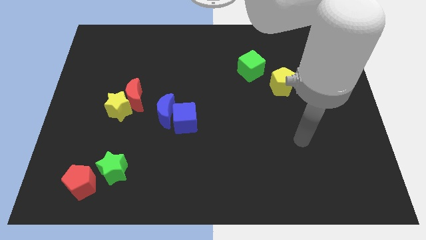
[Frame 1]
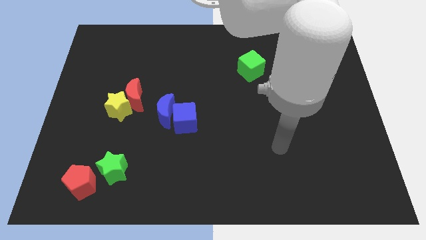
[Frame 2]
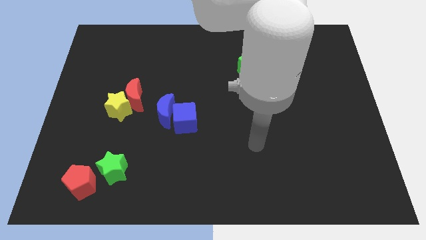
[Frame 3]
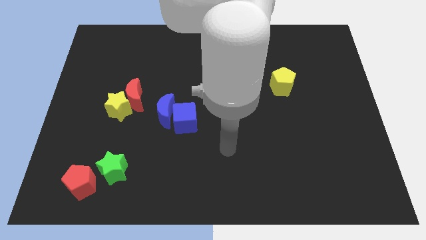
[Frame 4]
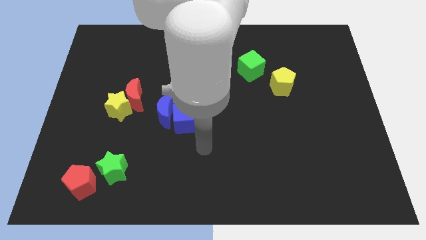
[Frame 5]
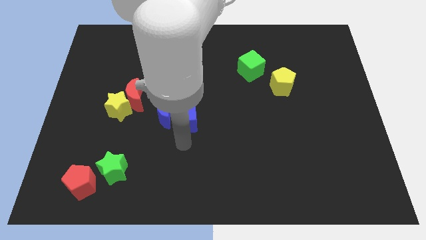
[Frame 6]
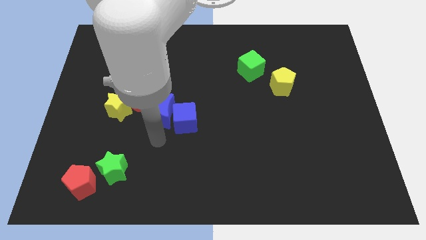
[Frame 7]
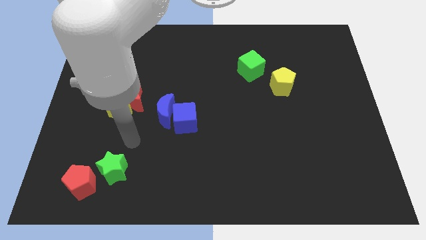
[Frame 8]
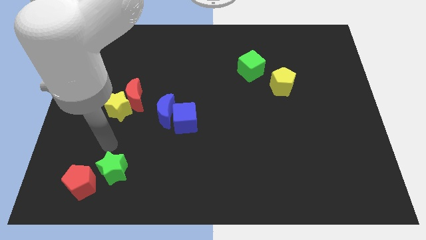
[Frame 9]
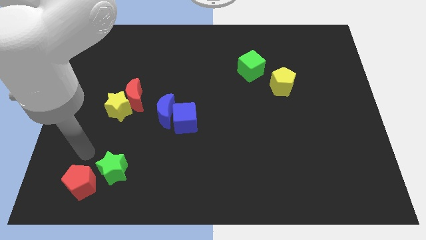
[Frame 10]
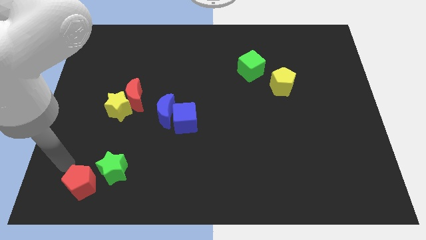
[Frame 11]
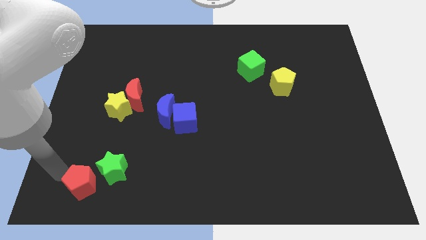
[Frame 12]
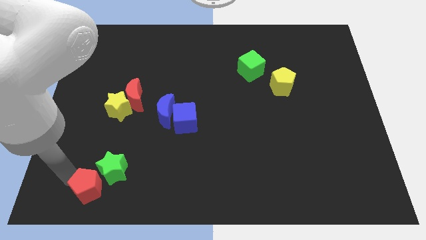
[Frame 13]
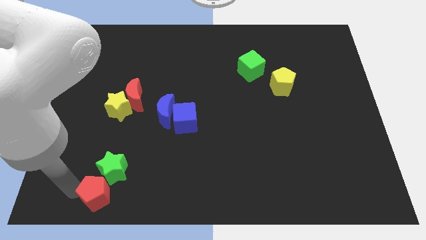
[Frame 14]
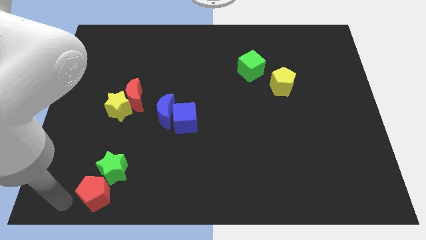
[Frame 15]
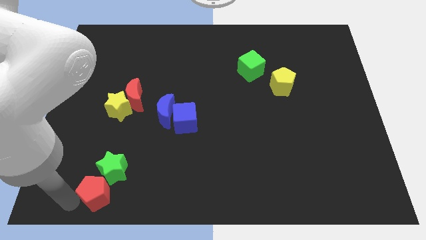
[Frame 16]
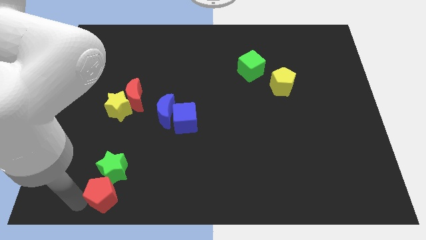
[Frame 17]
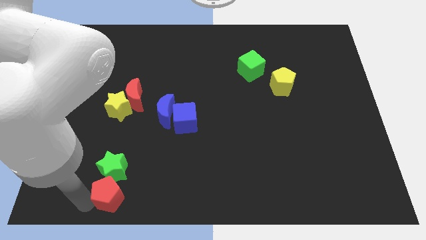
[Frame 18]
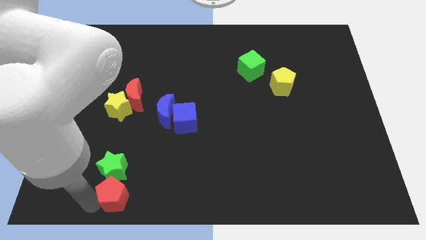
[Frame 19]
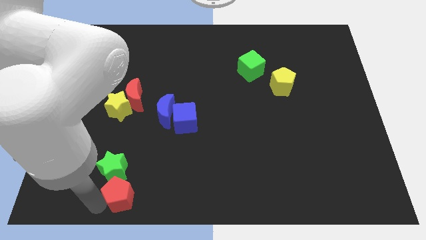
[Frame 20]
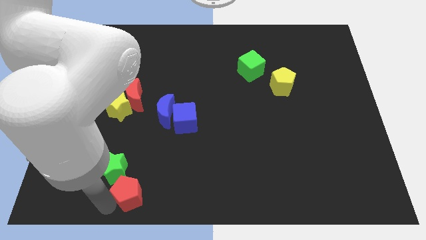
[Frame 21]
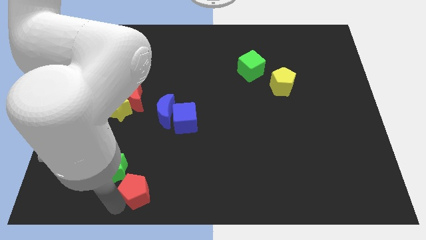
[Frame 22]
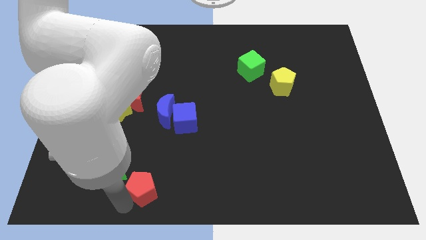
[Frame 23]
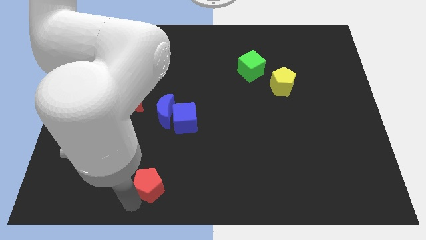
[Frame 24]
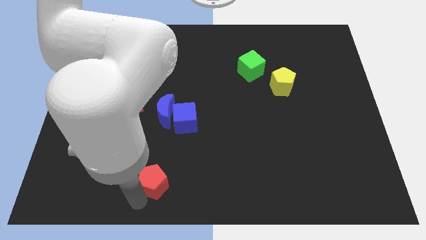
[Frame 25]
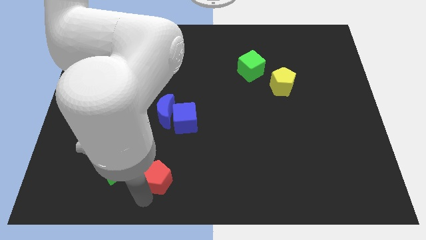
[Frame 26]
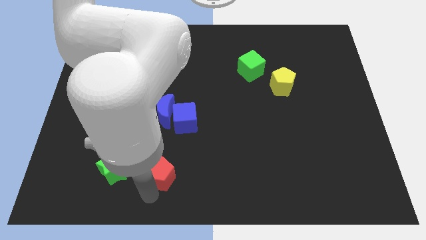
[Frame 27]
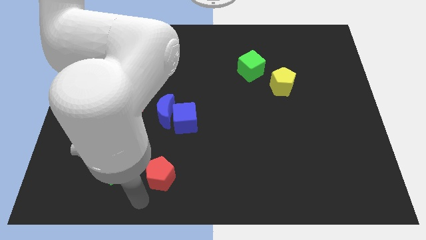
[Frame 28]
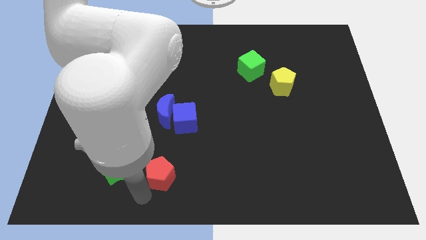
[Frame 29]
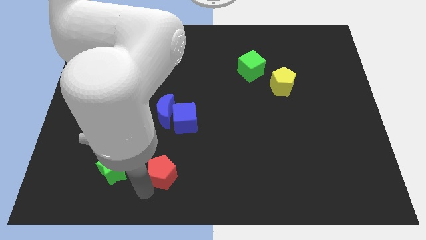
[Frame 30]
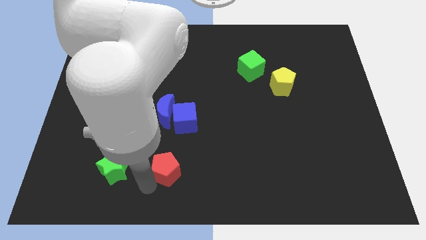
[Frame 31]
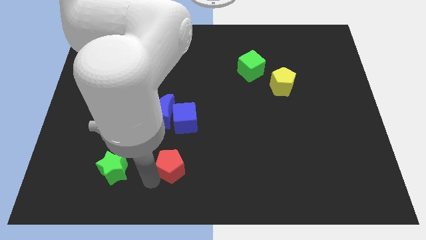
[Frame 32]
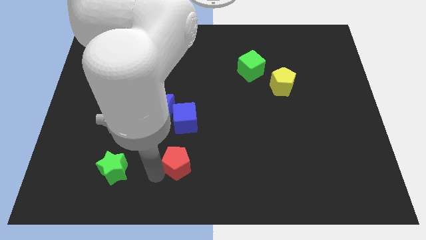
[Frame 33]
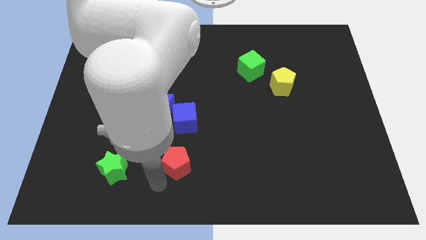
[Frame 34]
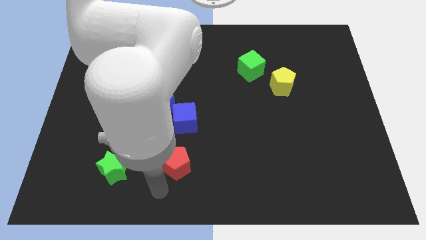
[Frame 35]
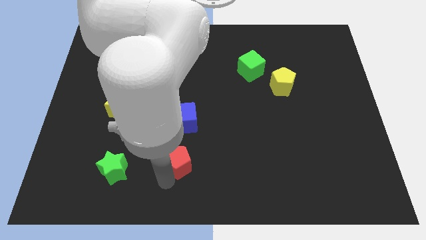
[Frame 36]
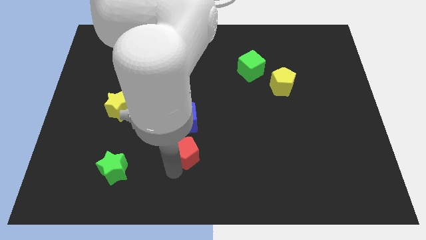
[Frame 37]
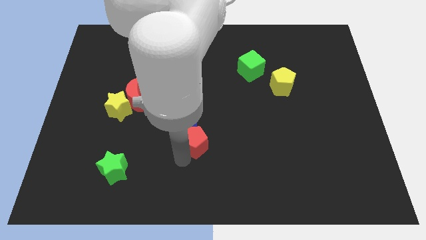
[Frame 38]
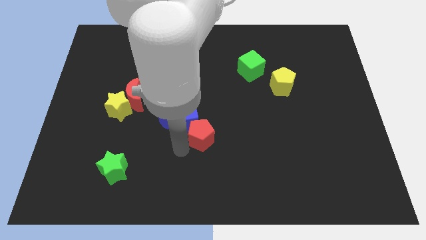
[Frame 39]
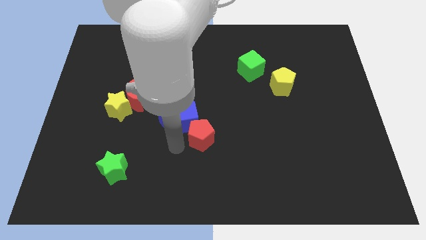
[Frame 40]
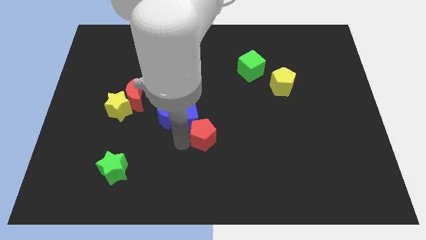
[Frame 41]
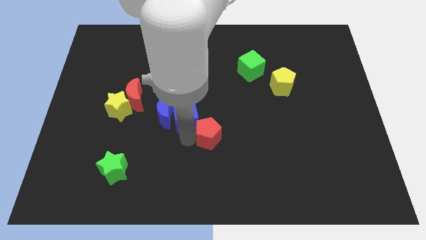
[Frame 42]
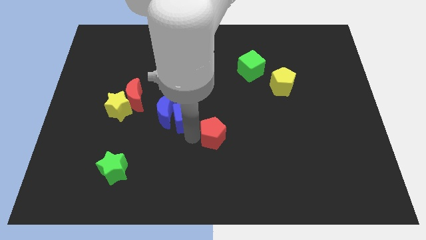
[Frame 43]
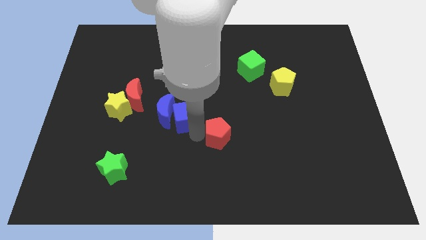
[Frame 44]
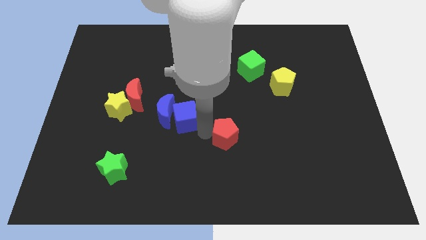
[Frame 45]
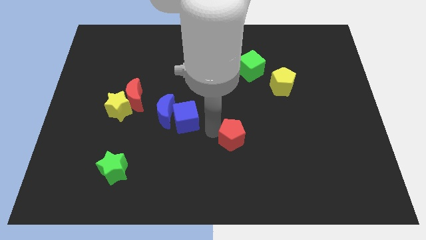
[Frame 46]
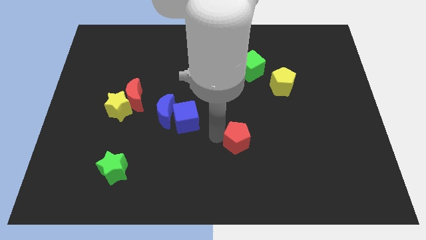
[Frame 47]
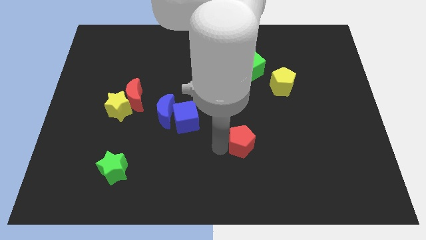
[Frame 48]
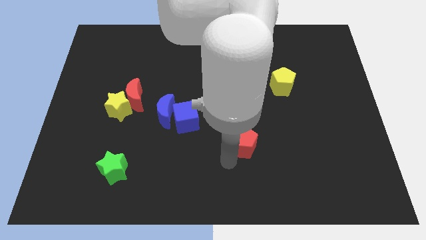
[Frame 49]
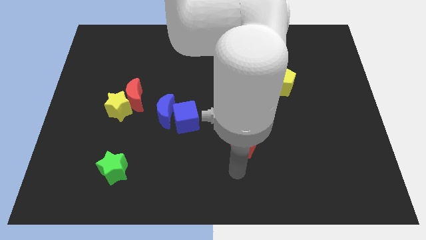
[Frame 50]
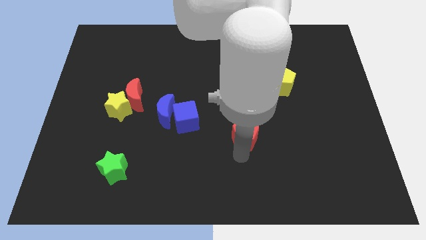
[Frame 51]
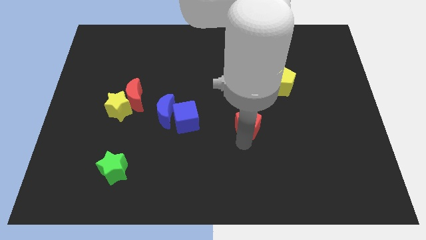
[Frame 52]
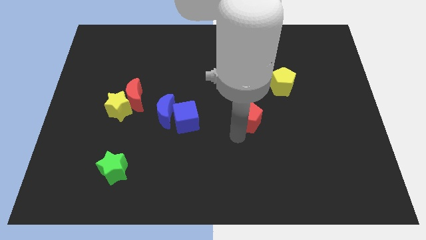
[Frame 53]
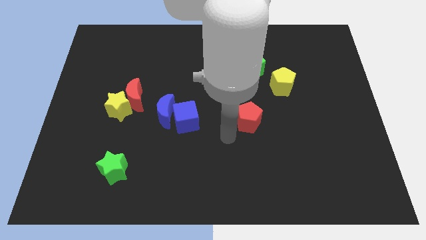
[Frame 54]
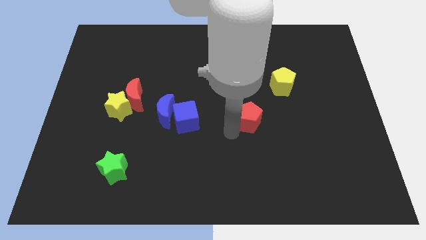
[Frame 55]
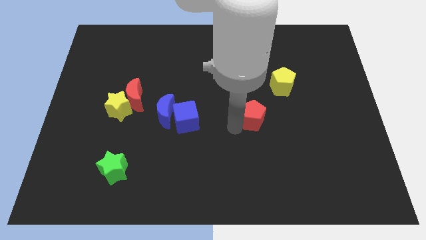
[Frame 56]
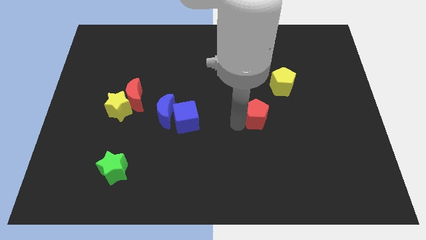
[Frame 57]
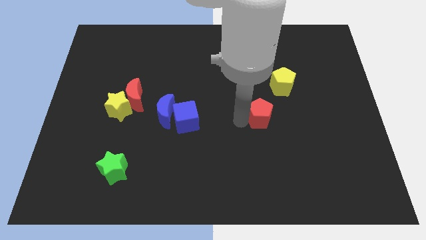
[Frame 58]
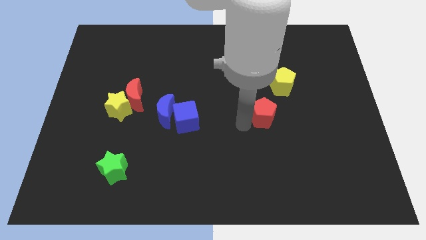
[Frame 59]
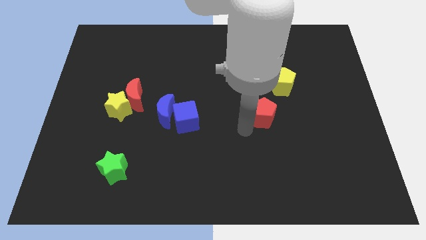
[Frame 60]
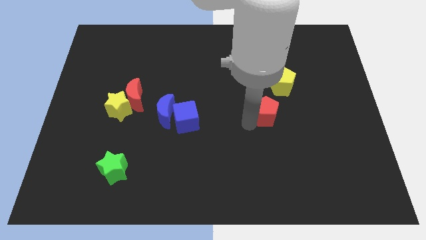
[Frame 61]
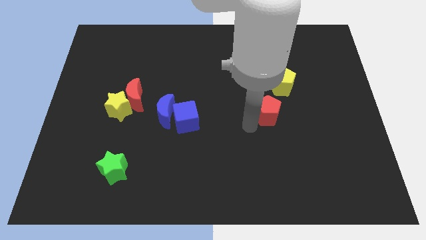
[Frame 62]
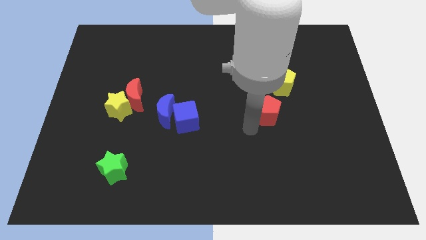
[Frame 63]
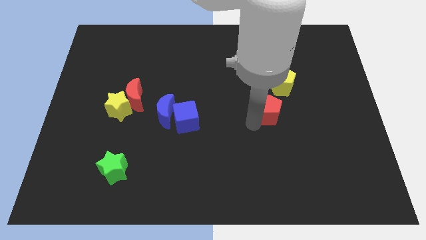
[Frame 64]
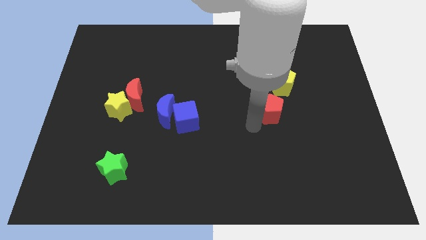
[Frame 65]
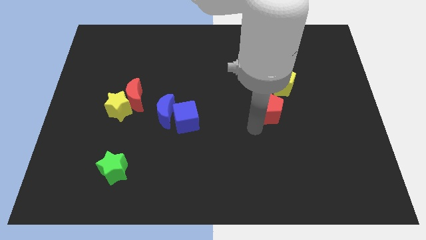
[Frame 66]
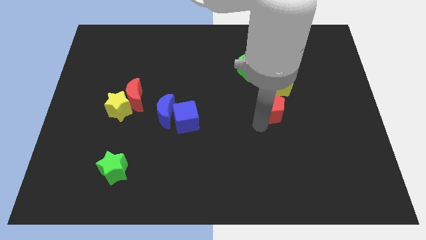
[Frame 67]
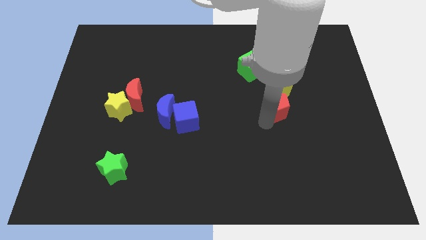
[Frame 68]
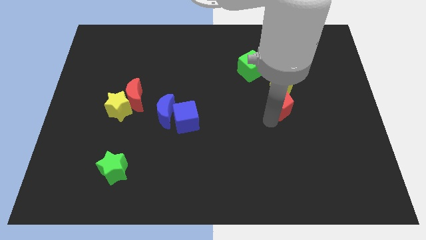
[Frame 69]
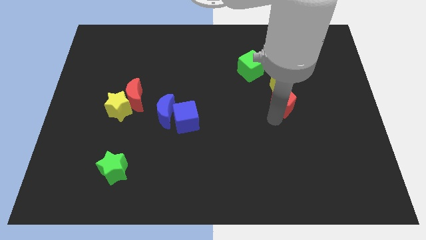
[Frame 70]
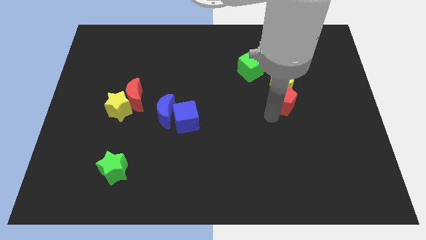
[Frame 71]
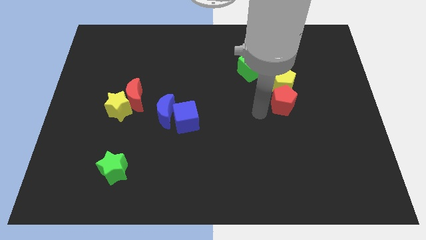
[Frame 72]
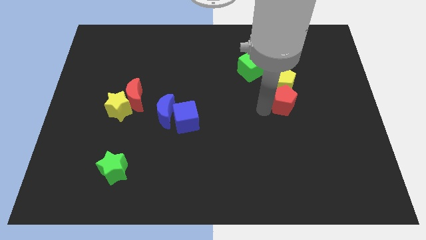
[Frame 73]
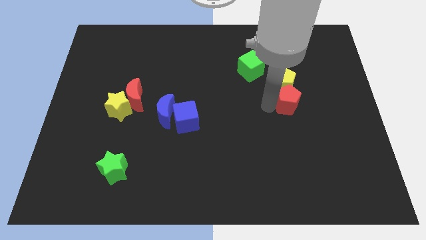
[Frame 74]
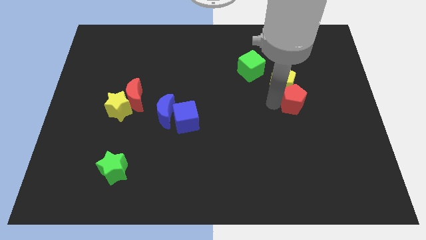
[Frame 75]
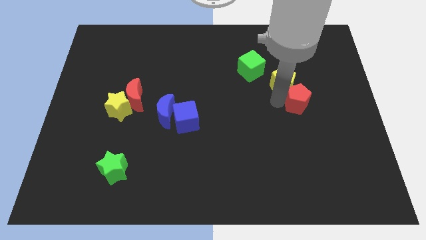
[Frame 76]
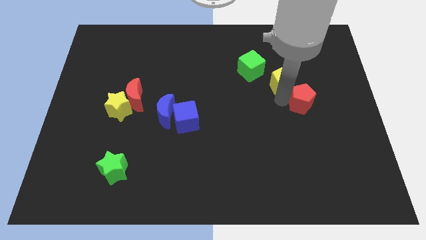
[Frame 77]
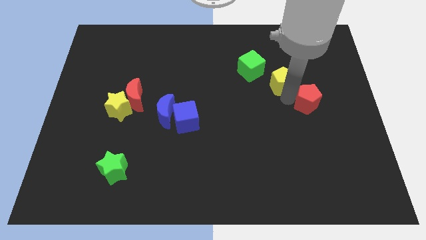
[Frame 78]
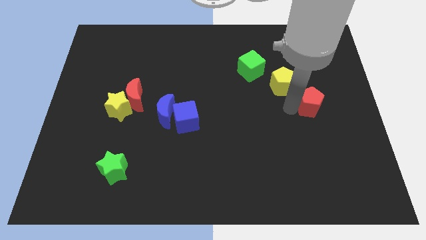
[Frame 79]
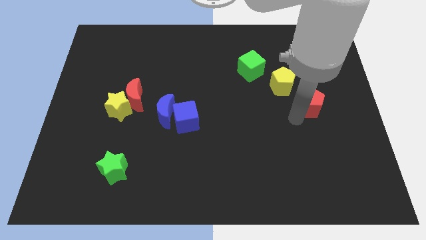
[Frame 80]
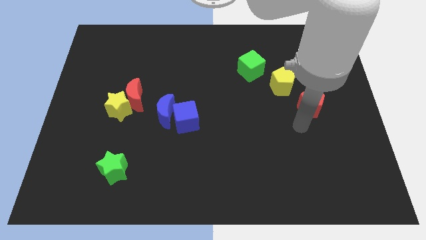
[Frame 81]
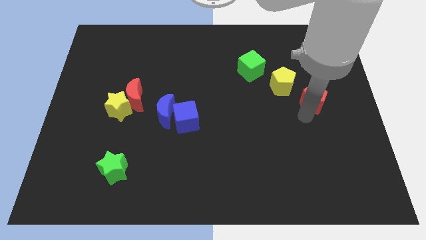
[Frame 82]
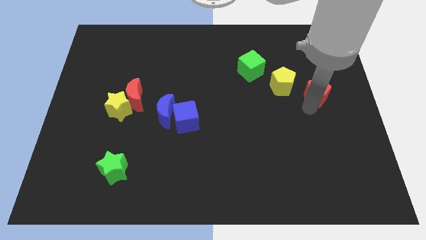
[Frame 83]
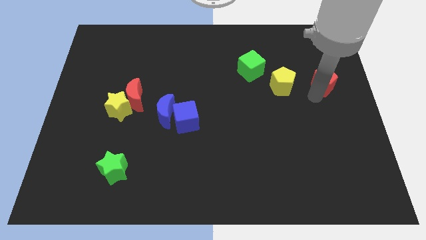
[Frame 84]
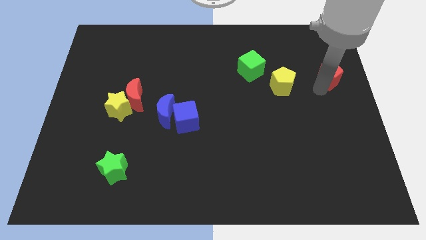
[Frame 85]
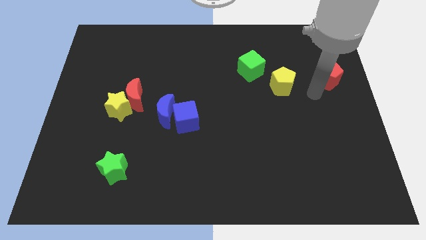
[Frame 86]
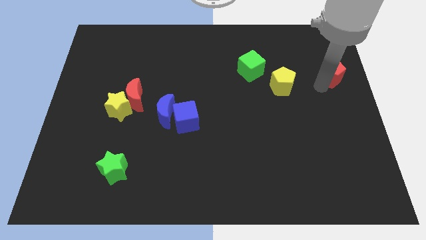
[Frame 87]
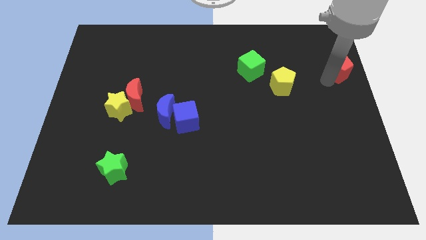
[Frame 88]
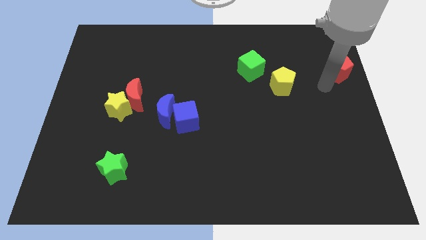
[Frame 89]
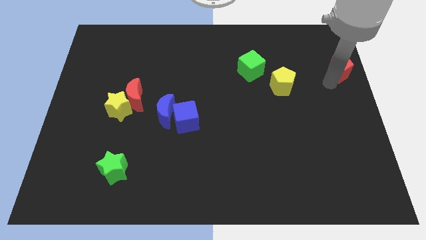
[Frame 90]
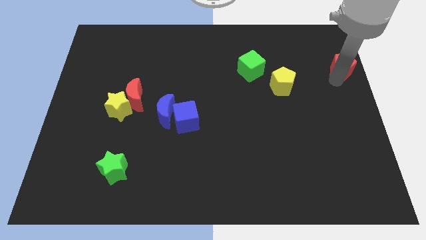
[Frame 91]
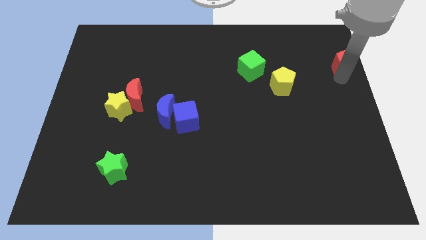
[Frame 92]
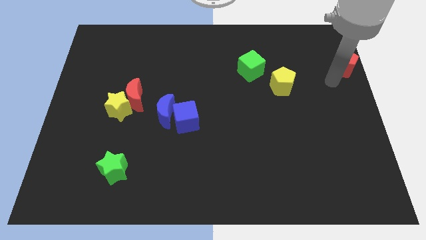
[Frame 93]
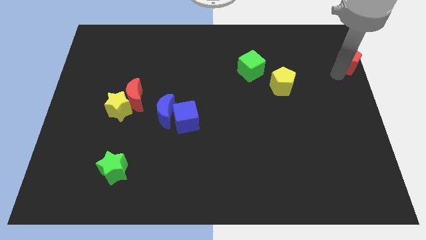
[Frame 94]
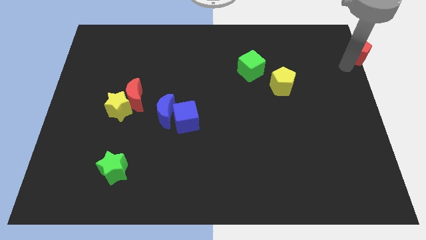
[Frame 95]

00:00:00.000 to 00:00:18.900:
put the red pentagon to the top right of the board
